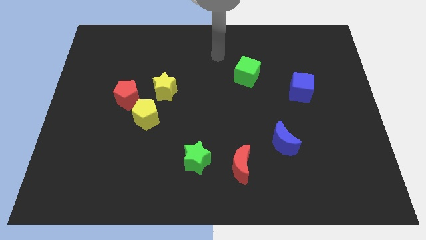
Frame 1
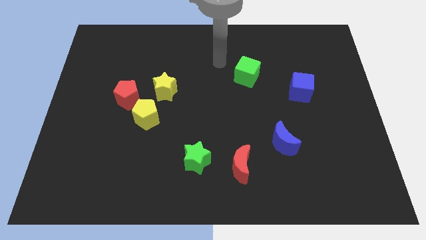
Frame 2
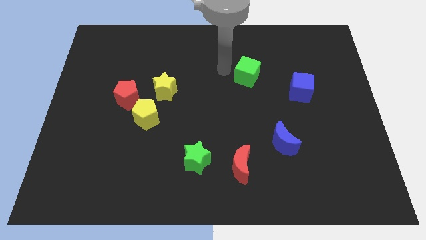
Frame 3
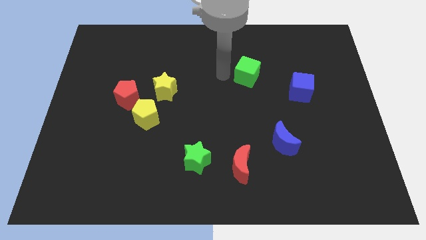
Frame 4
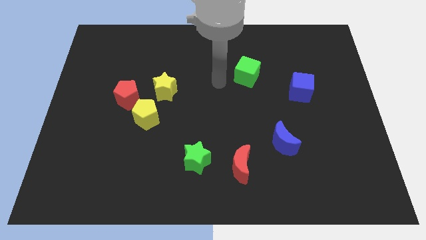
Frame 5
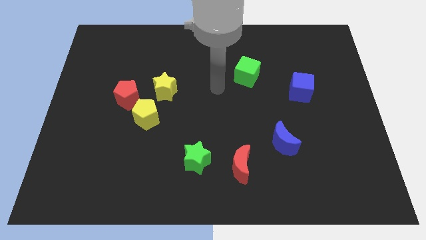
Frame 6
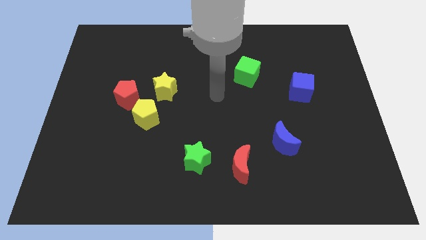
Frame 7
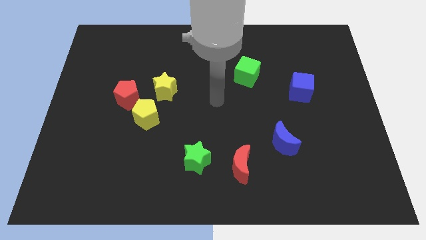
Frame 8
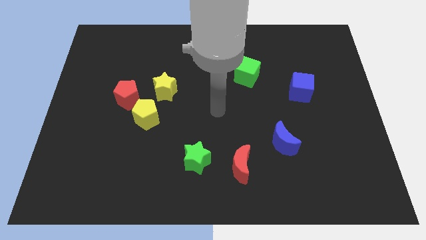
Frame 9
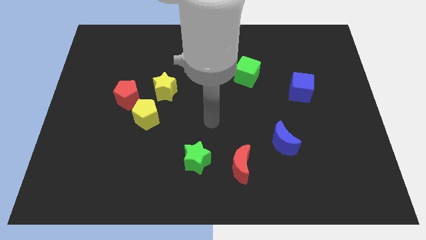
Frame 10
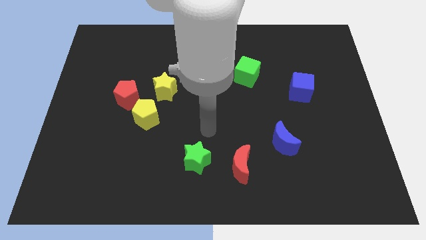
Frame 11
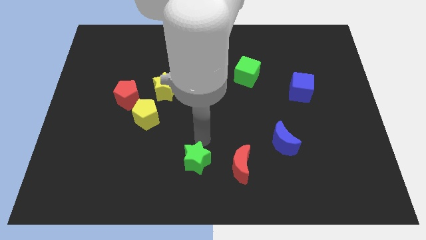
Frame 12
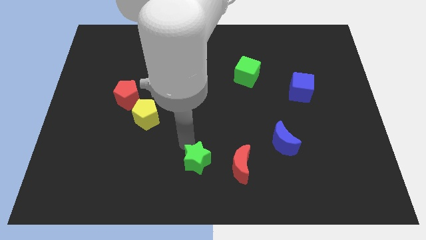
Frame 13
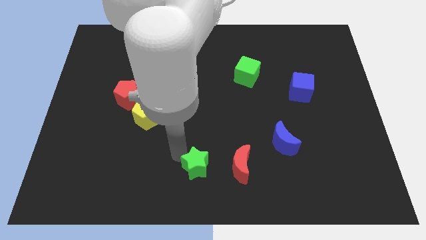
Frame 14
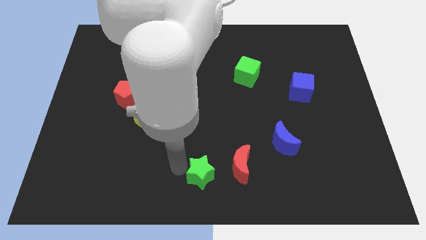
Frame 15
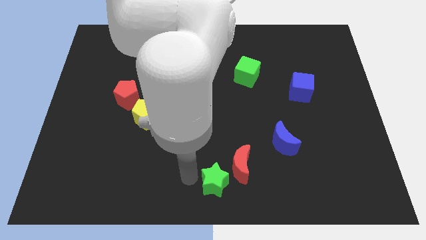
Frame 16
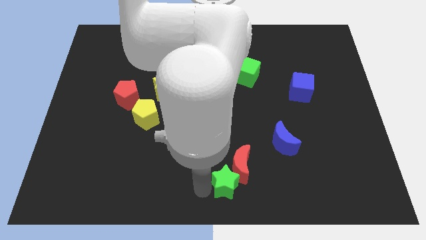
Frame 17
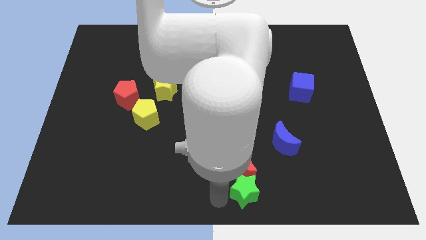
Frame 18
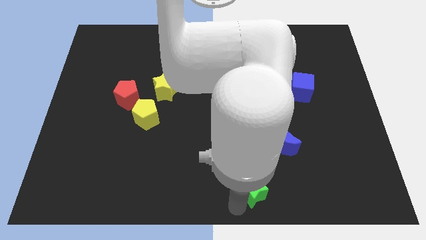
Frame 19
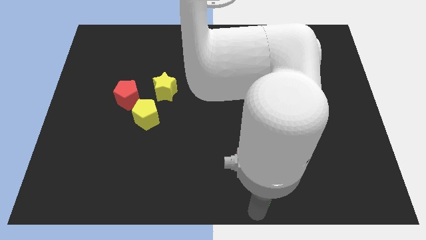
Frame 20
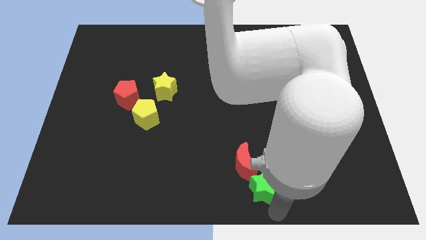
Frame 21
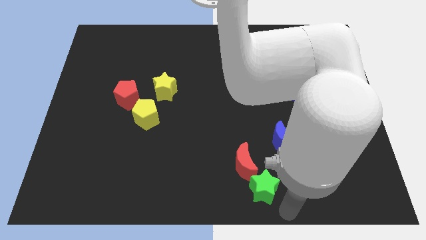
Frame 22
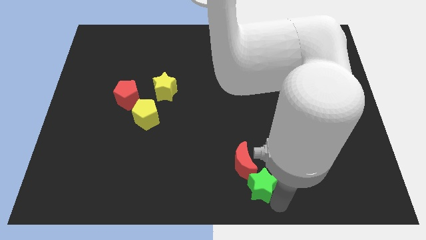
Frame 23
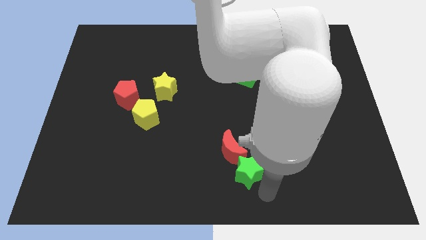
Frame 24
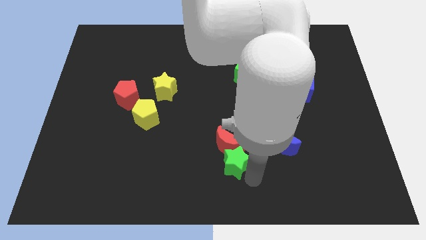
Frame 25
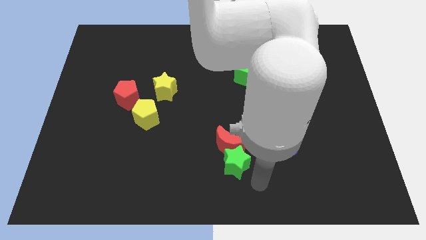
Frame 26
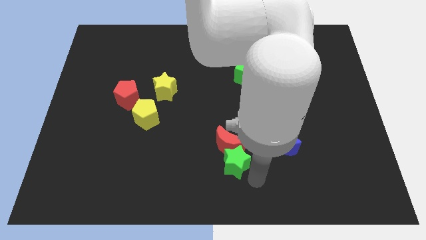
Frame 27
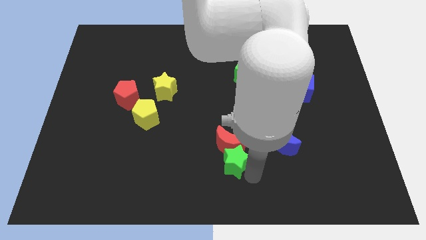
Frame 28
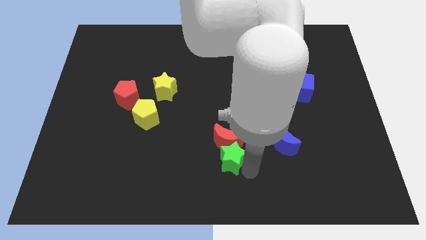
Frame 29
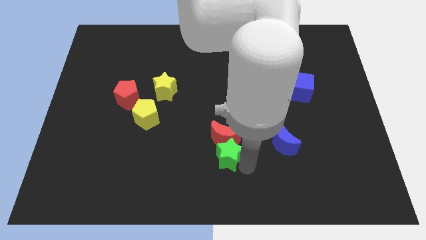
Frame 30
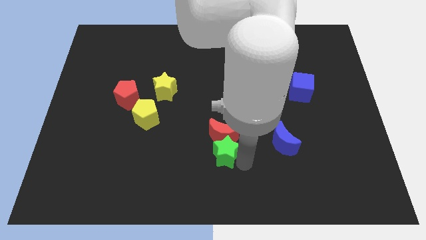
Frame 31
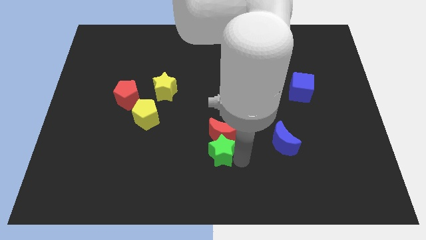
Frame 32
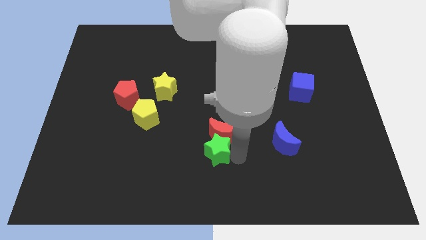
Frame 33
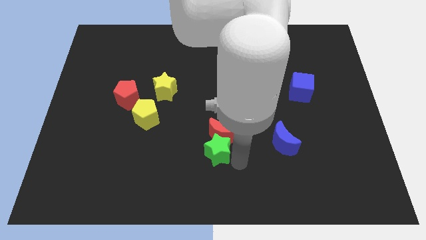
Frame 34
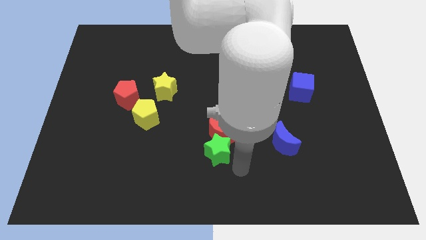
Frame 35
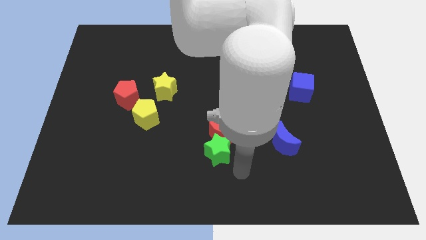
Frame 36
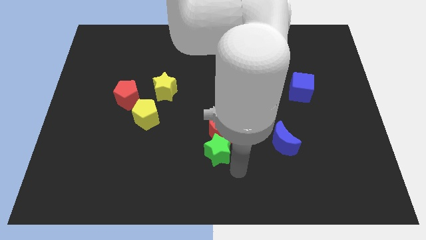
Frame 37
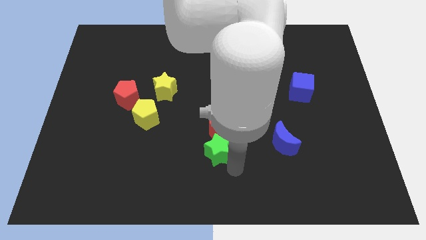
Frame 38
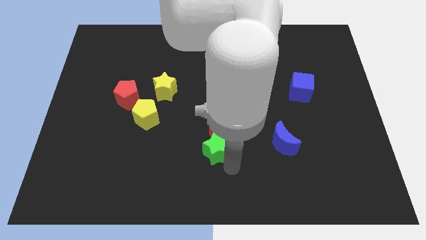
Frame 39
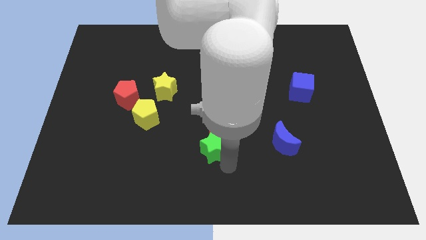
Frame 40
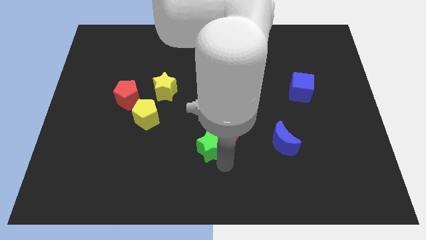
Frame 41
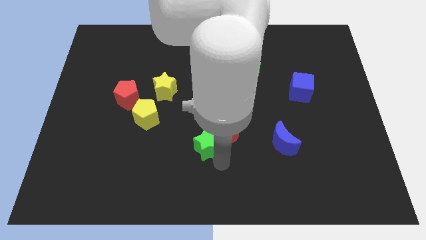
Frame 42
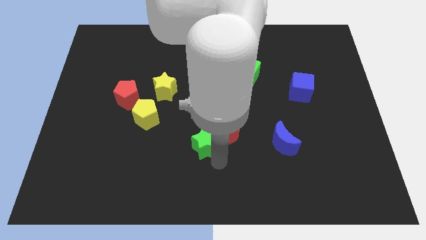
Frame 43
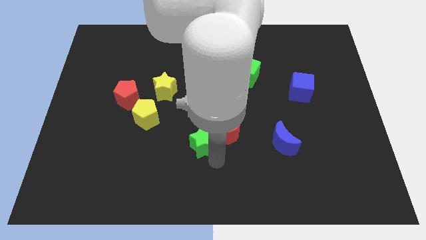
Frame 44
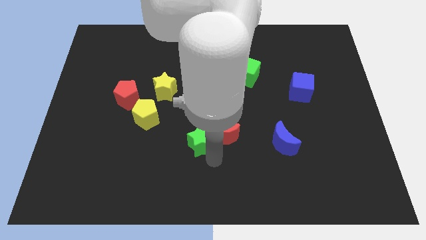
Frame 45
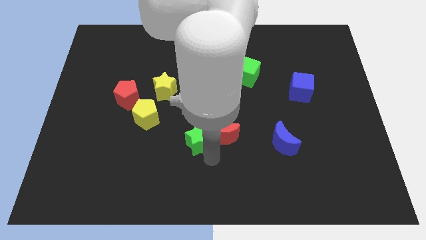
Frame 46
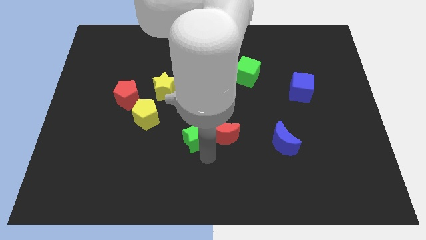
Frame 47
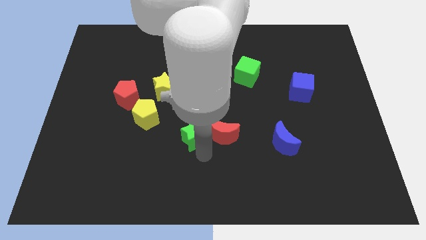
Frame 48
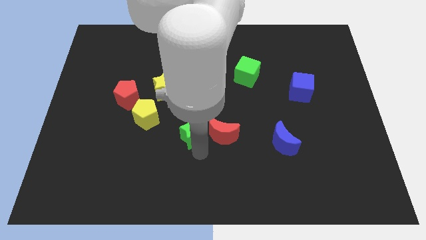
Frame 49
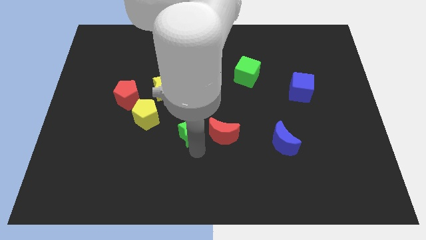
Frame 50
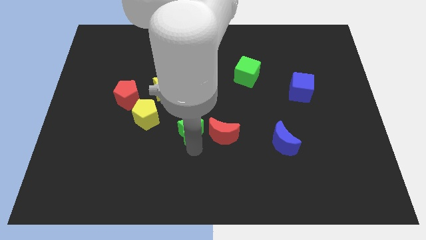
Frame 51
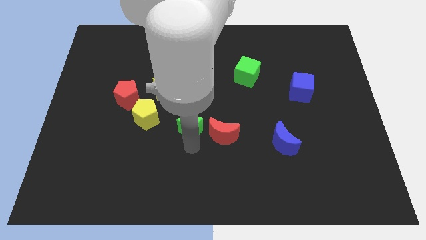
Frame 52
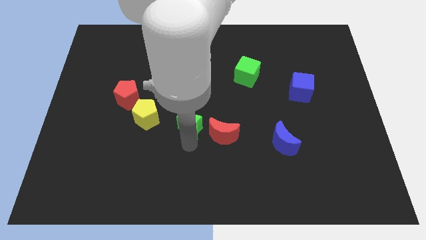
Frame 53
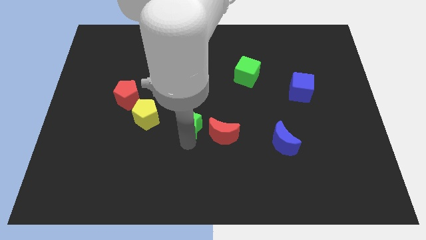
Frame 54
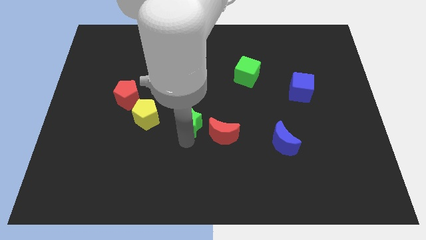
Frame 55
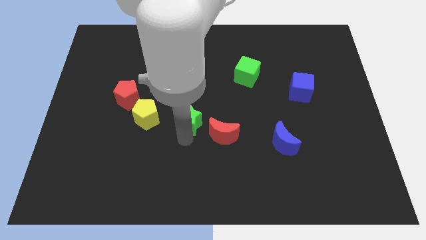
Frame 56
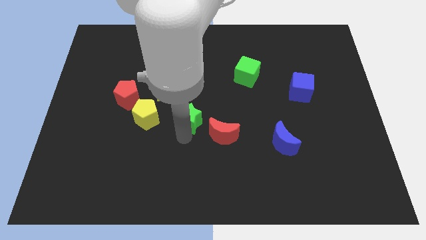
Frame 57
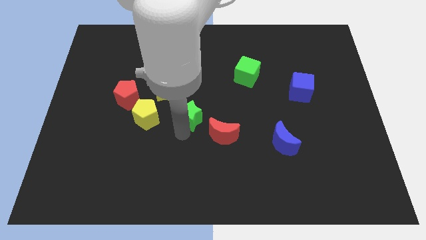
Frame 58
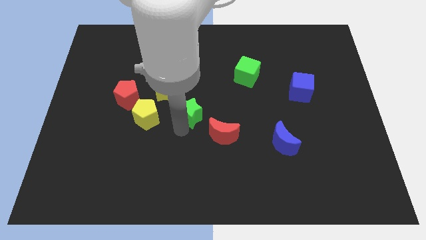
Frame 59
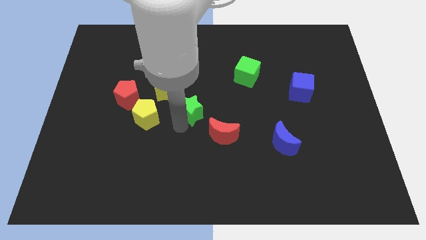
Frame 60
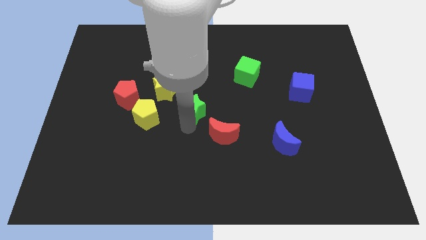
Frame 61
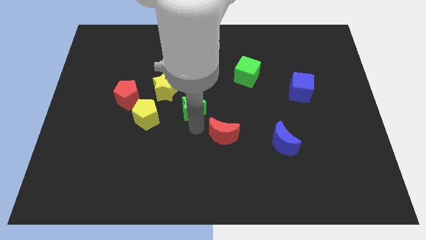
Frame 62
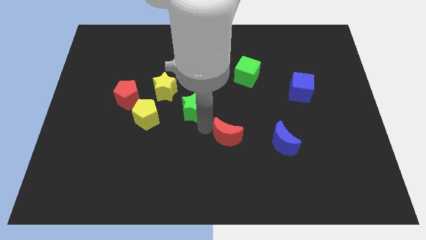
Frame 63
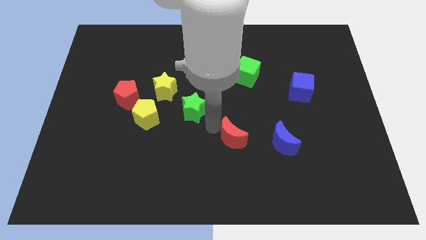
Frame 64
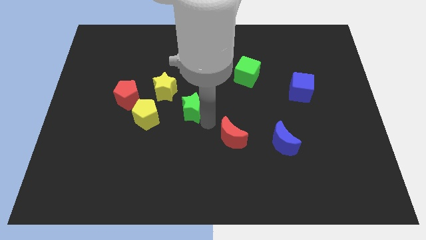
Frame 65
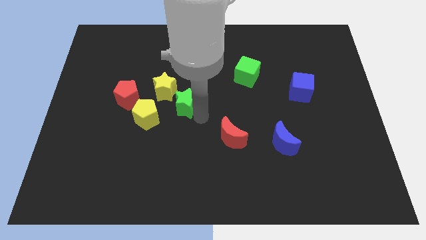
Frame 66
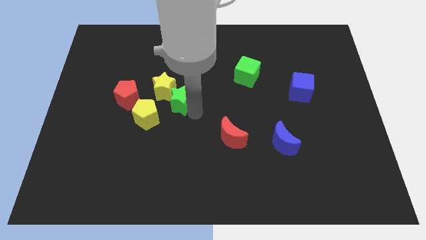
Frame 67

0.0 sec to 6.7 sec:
put the green star to the yellow star
